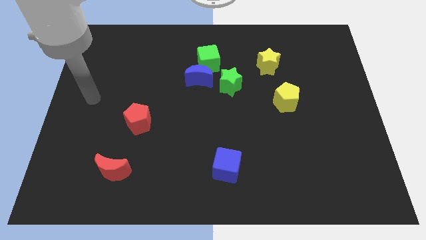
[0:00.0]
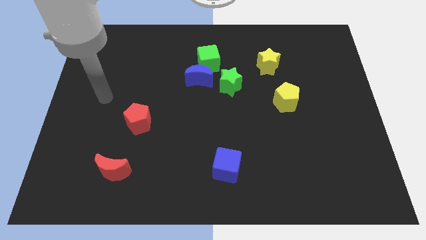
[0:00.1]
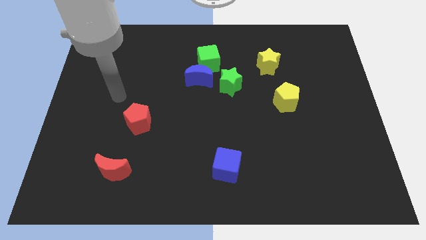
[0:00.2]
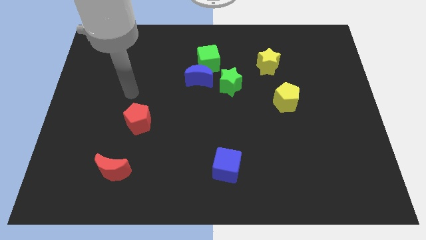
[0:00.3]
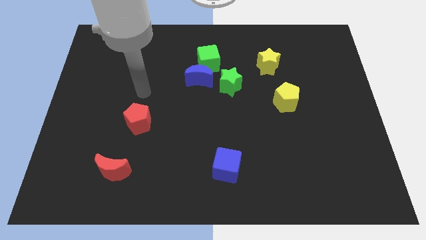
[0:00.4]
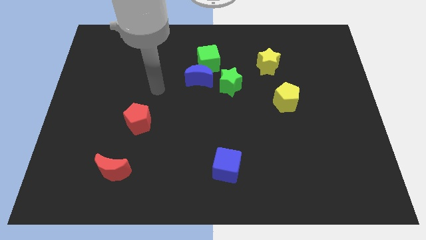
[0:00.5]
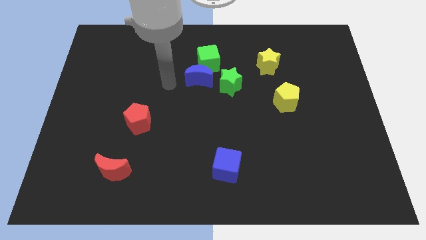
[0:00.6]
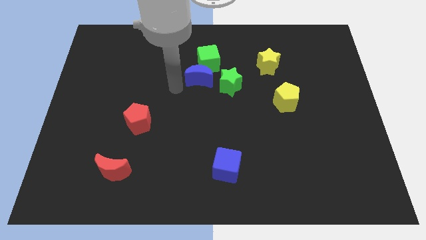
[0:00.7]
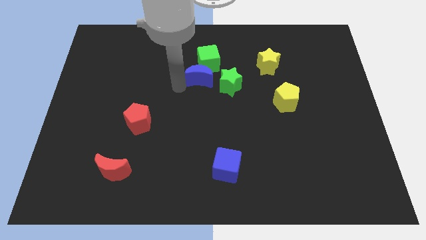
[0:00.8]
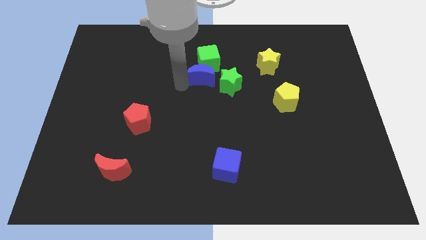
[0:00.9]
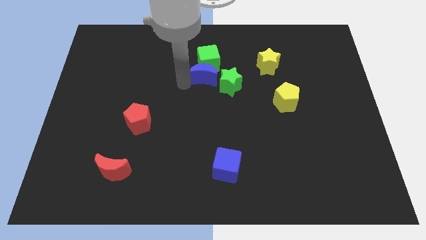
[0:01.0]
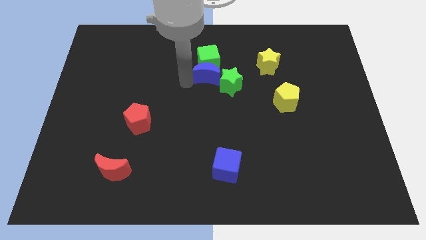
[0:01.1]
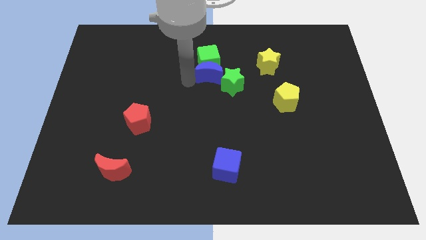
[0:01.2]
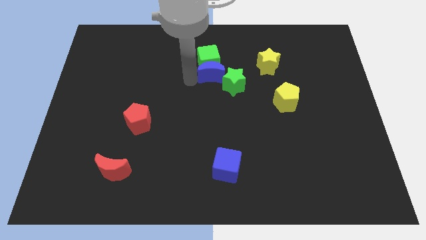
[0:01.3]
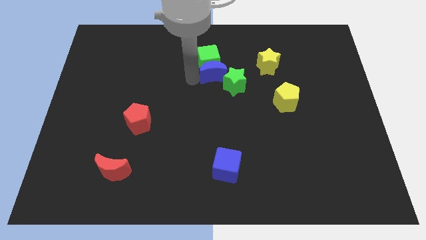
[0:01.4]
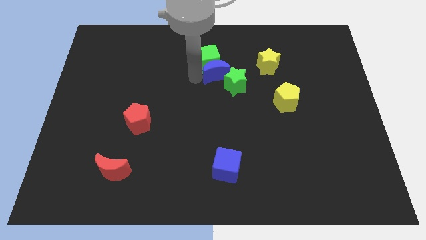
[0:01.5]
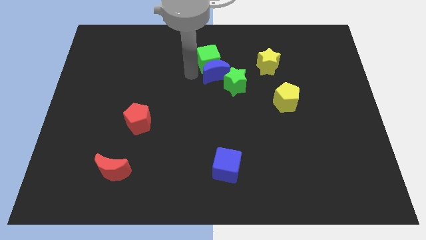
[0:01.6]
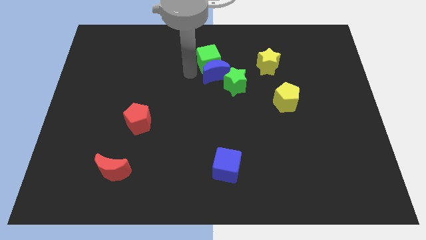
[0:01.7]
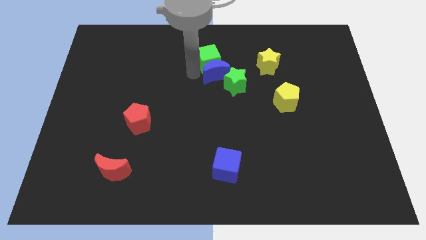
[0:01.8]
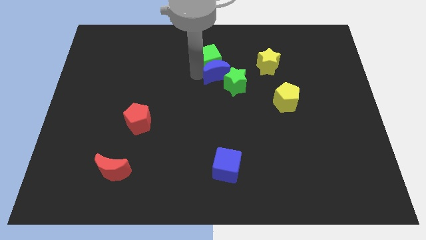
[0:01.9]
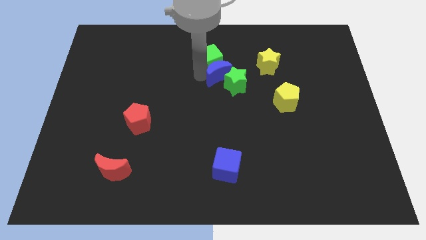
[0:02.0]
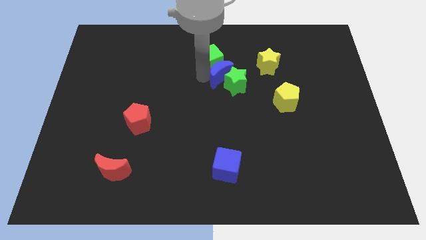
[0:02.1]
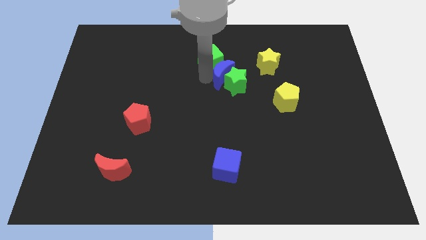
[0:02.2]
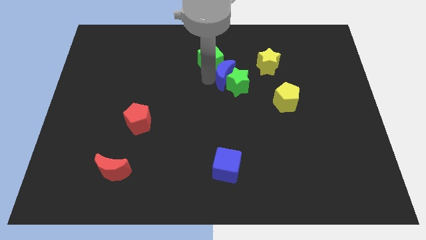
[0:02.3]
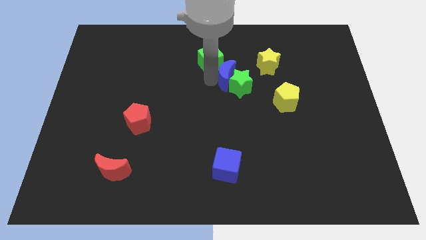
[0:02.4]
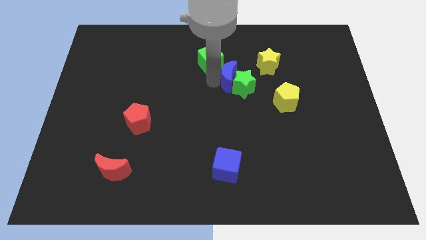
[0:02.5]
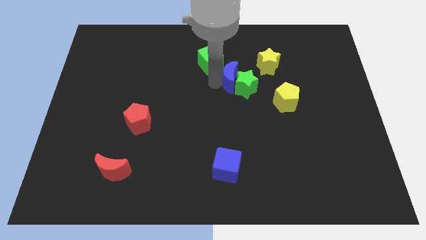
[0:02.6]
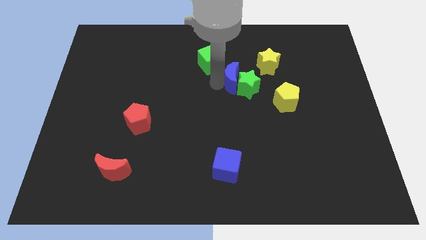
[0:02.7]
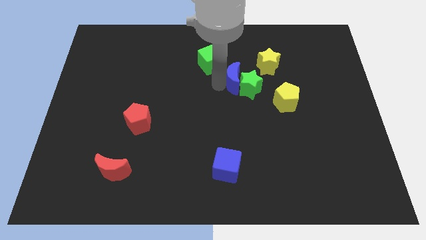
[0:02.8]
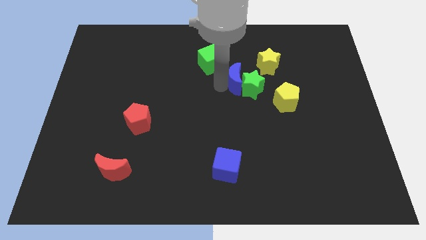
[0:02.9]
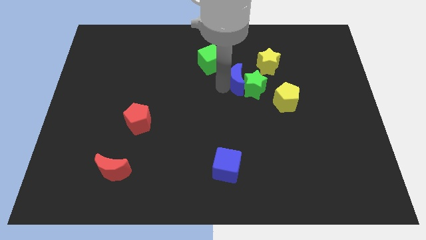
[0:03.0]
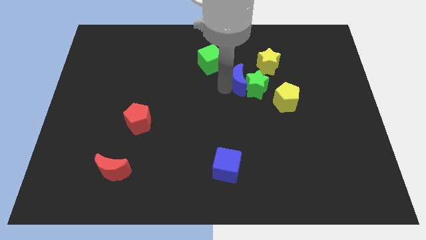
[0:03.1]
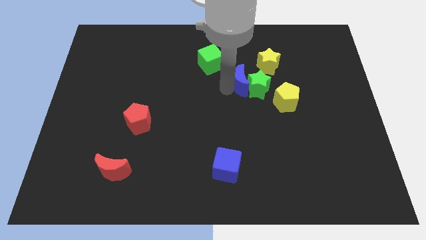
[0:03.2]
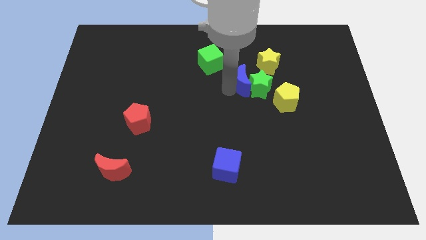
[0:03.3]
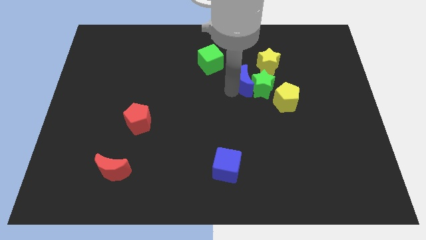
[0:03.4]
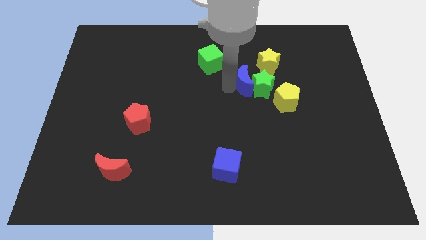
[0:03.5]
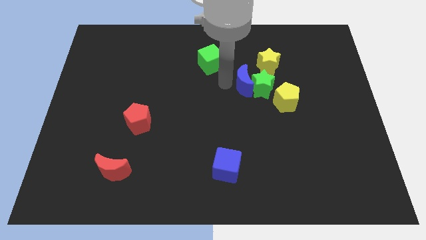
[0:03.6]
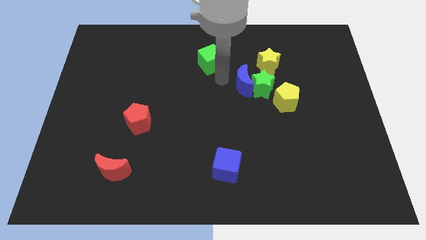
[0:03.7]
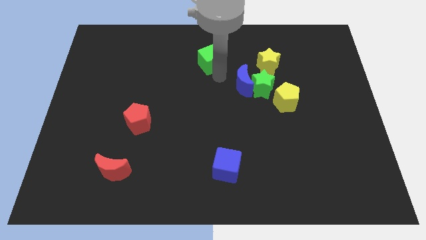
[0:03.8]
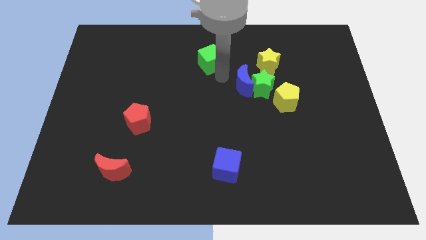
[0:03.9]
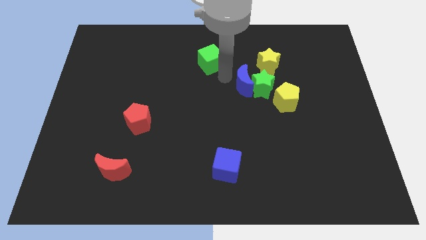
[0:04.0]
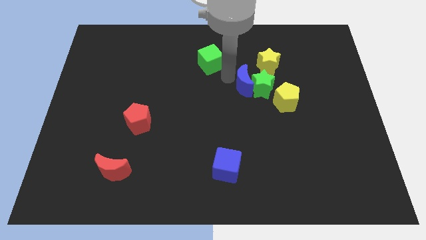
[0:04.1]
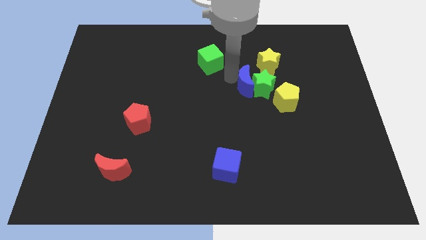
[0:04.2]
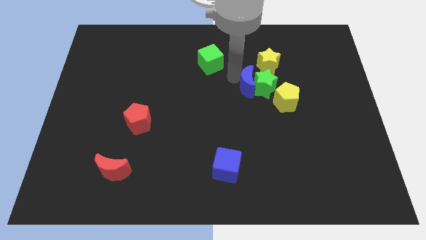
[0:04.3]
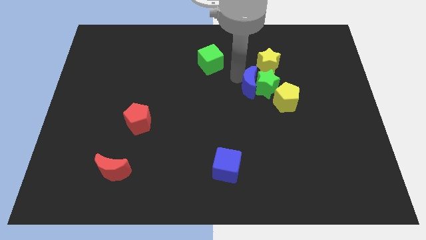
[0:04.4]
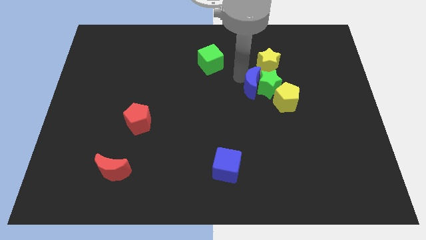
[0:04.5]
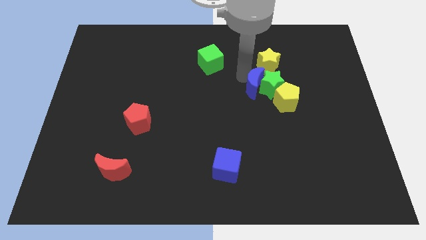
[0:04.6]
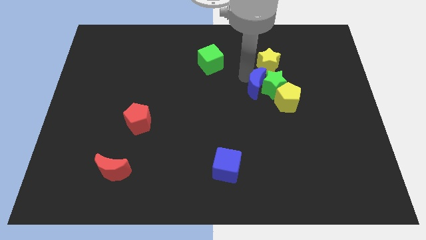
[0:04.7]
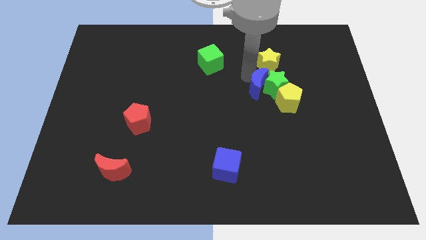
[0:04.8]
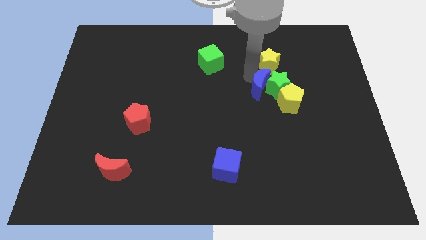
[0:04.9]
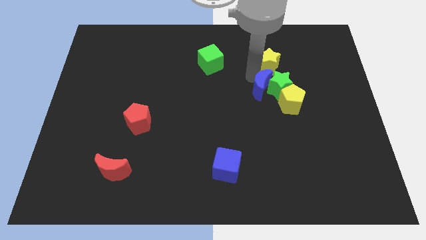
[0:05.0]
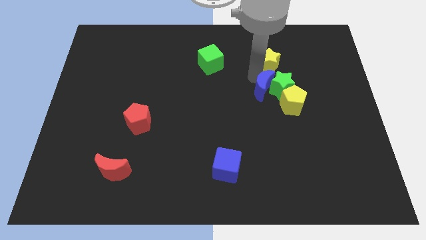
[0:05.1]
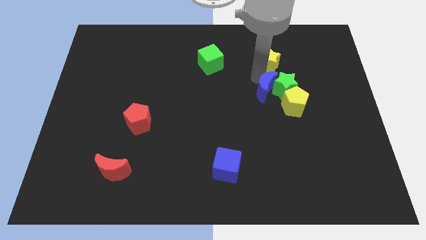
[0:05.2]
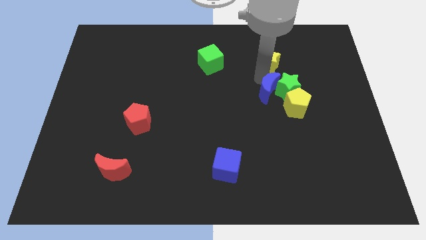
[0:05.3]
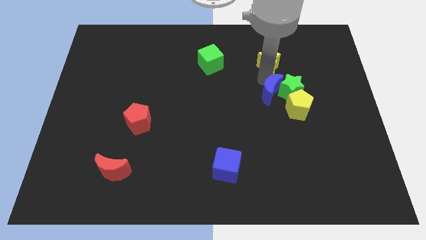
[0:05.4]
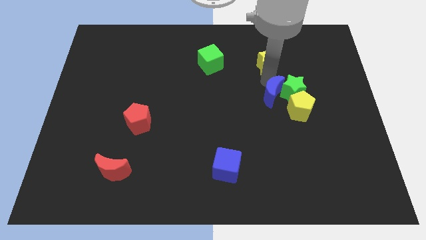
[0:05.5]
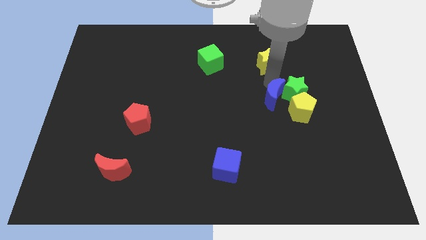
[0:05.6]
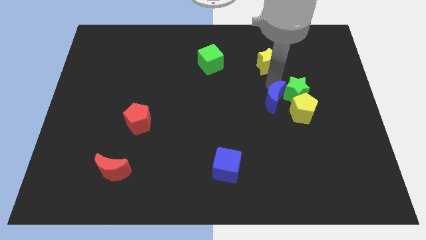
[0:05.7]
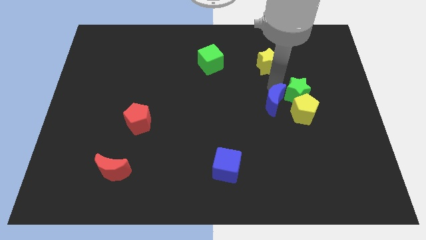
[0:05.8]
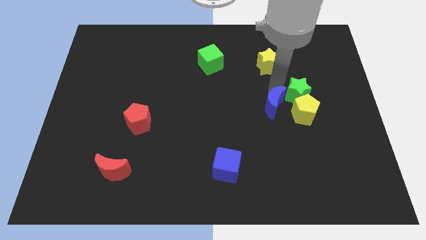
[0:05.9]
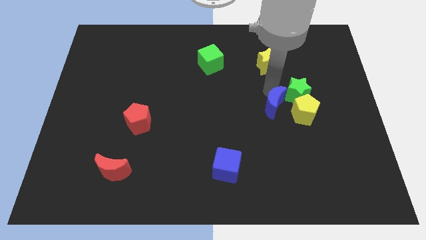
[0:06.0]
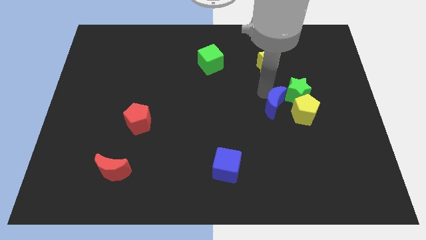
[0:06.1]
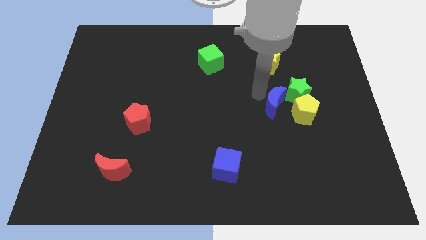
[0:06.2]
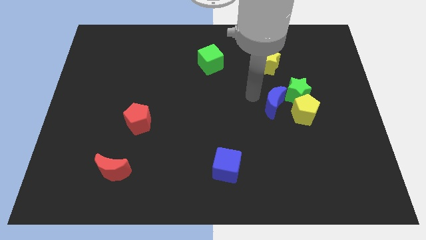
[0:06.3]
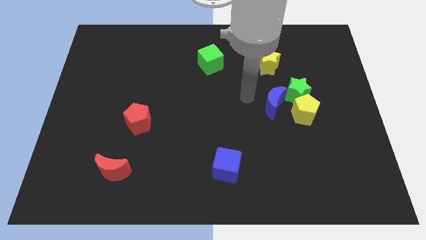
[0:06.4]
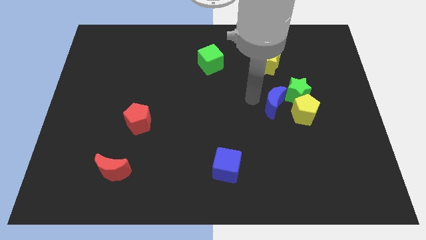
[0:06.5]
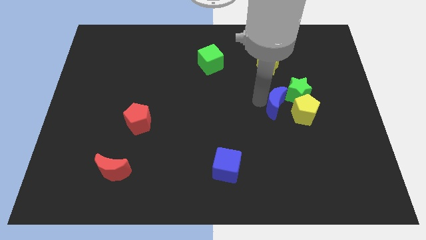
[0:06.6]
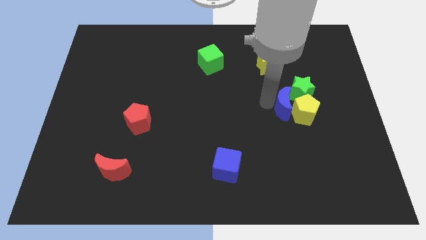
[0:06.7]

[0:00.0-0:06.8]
push the blue moon to the yellow pentagon

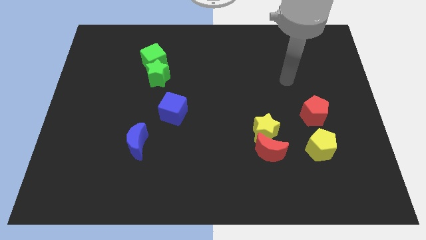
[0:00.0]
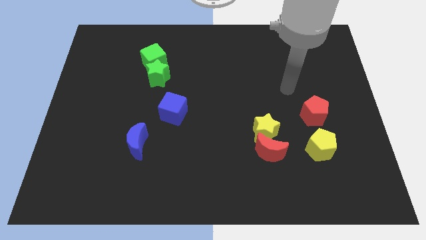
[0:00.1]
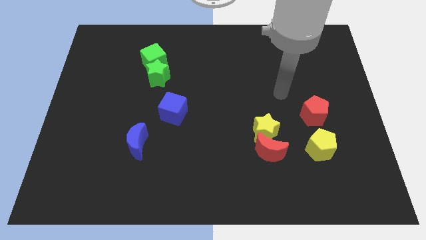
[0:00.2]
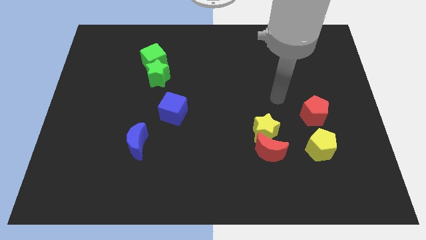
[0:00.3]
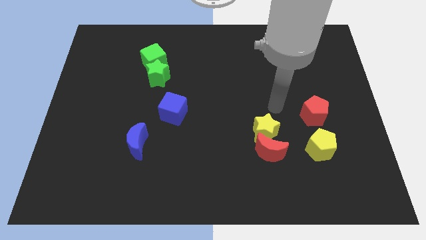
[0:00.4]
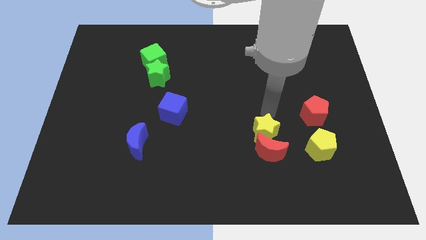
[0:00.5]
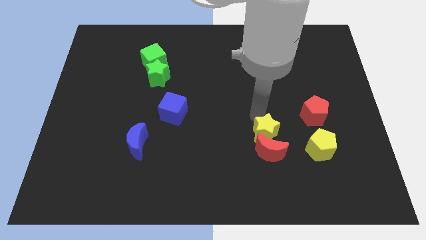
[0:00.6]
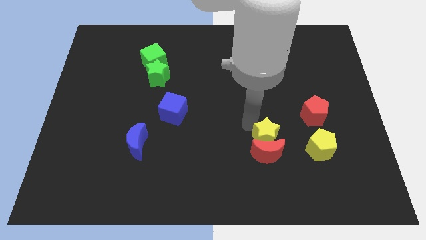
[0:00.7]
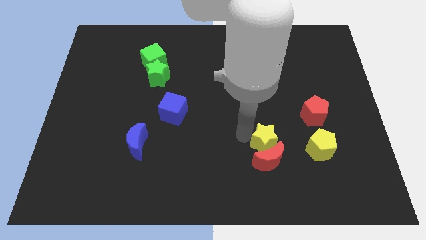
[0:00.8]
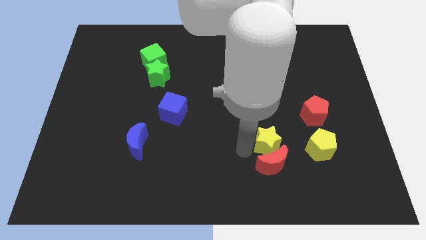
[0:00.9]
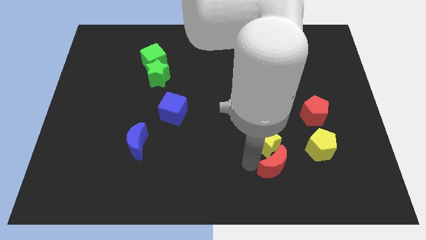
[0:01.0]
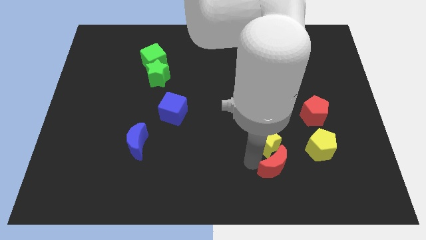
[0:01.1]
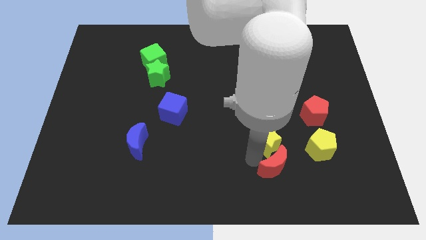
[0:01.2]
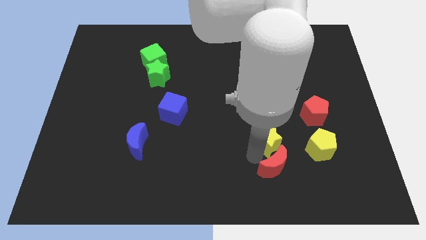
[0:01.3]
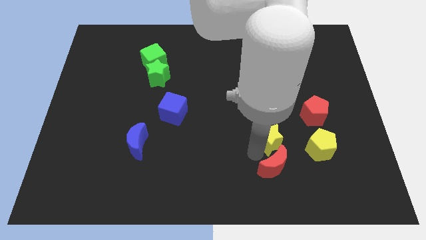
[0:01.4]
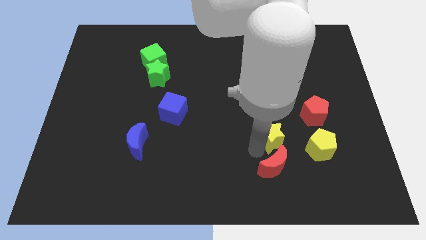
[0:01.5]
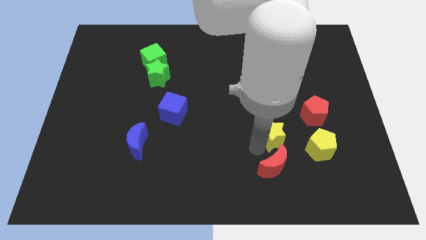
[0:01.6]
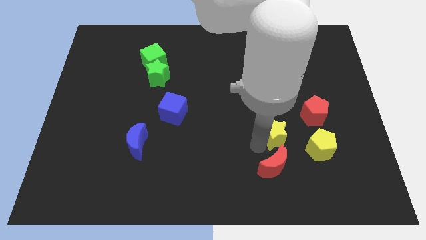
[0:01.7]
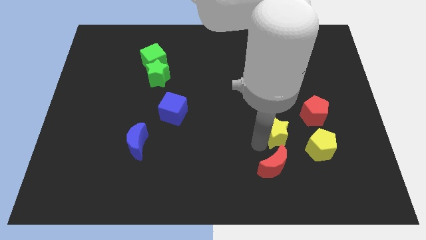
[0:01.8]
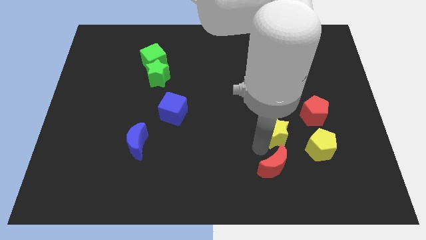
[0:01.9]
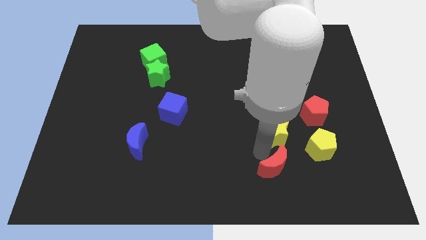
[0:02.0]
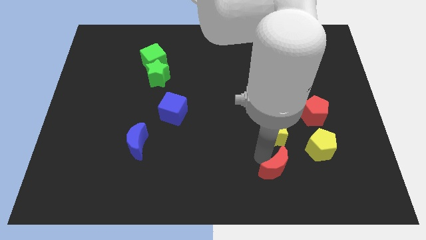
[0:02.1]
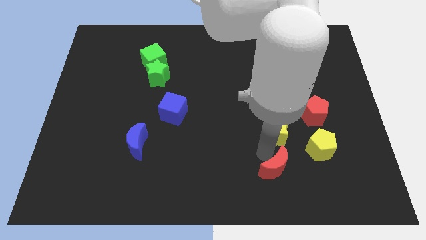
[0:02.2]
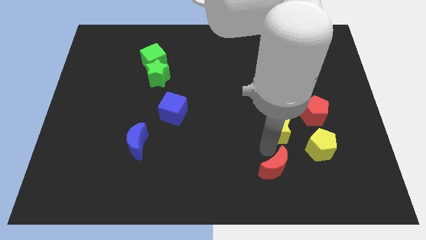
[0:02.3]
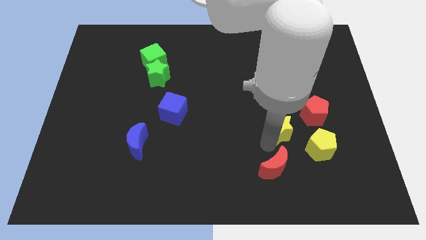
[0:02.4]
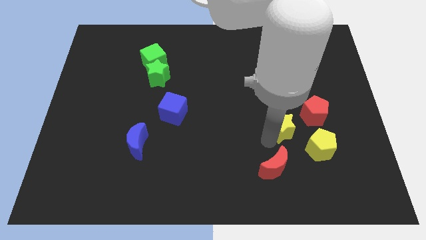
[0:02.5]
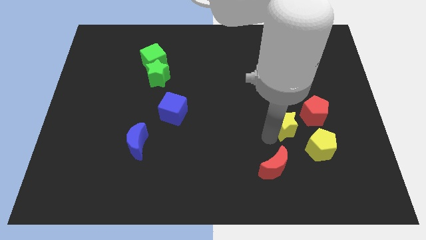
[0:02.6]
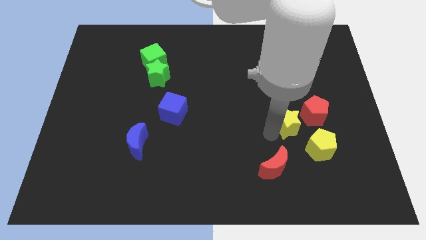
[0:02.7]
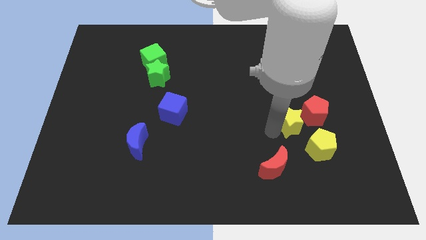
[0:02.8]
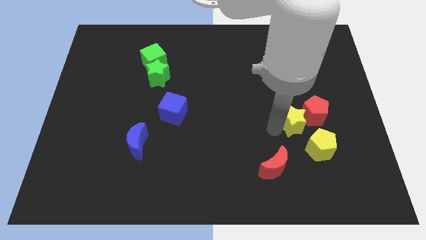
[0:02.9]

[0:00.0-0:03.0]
move the yellow star to the red pentagon
